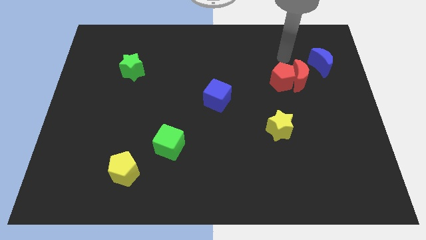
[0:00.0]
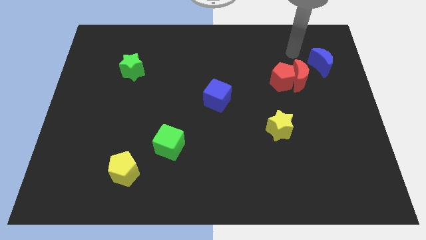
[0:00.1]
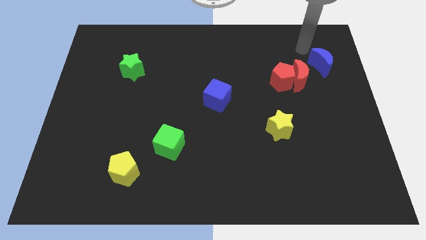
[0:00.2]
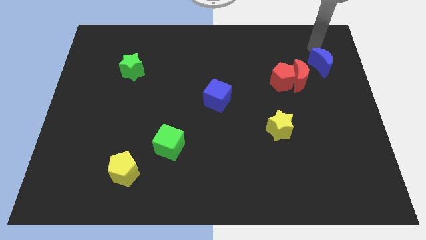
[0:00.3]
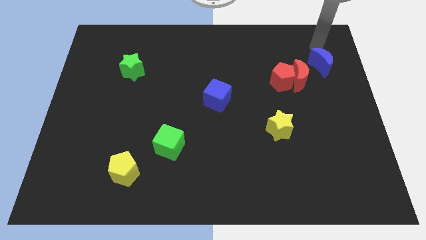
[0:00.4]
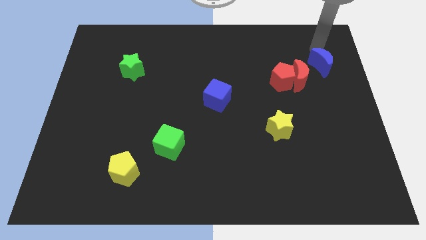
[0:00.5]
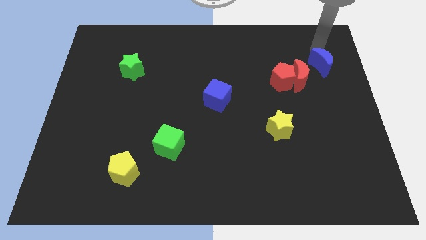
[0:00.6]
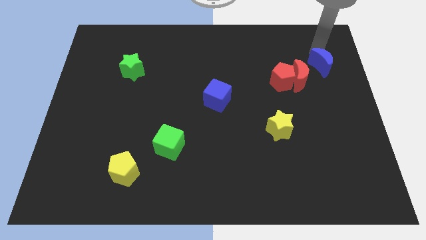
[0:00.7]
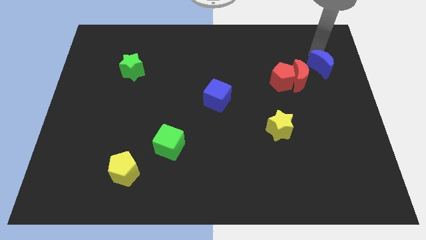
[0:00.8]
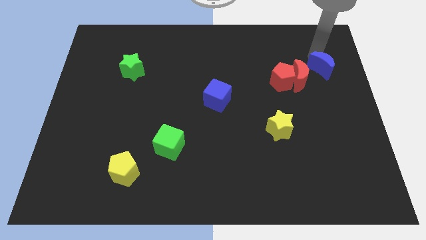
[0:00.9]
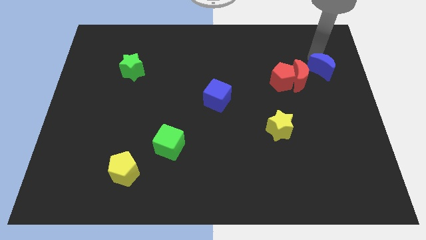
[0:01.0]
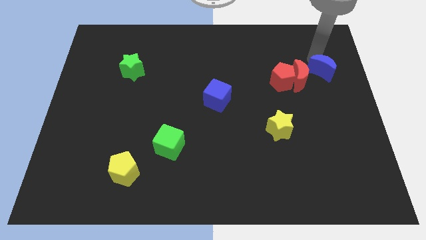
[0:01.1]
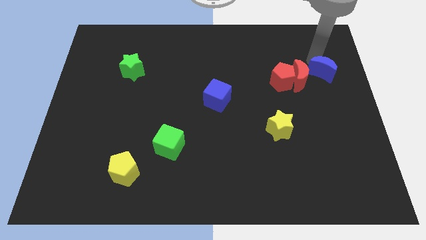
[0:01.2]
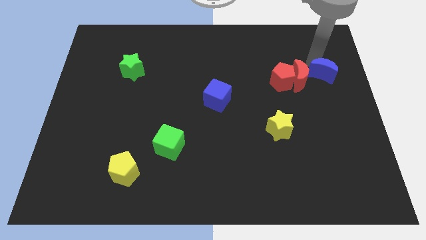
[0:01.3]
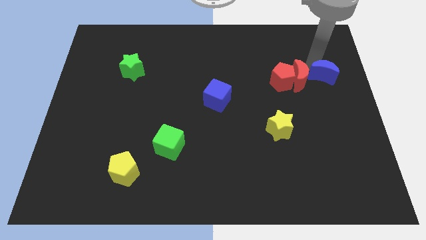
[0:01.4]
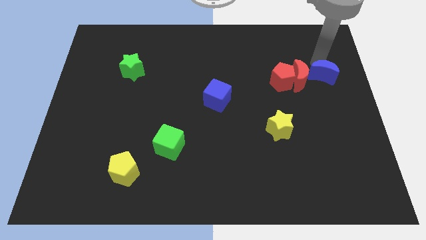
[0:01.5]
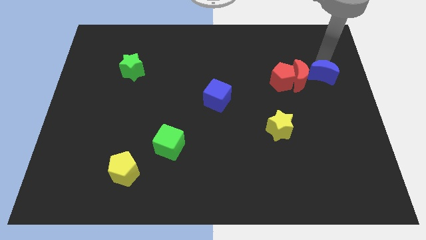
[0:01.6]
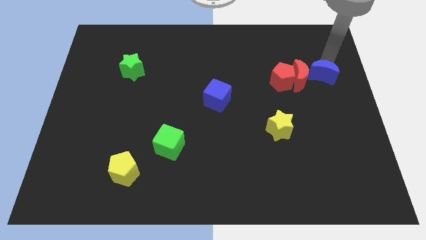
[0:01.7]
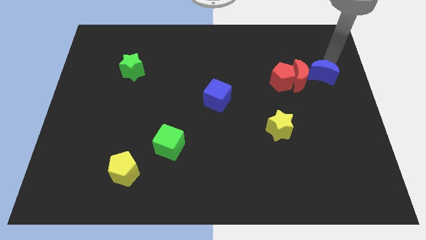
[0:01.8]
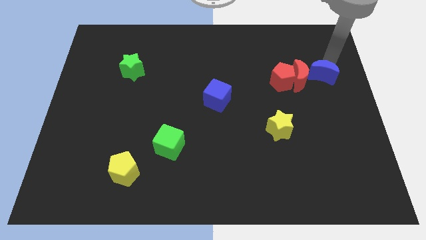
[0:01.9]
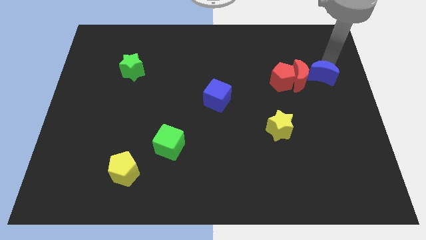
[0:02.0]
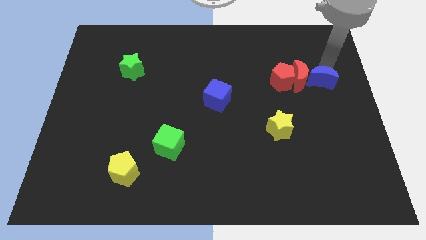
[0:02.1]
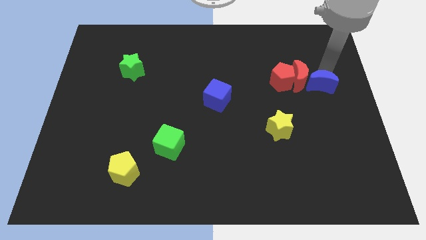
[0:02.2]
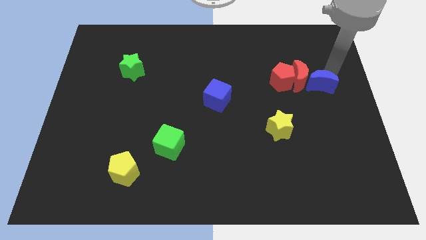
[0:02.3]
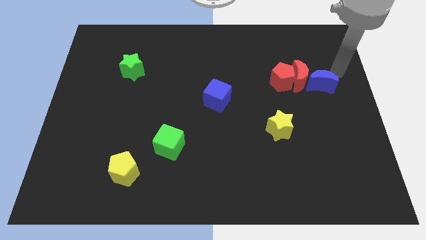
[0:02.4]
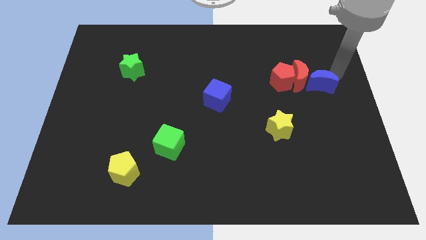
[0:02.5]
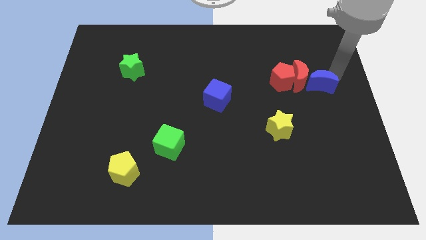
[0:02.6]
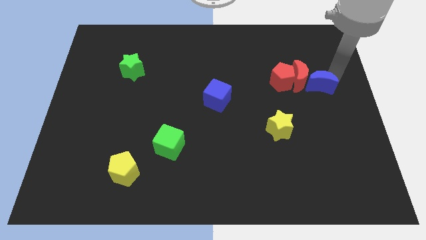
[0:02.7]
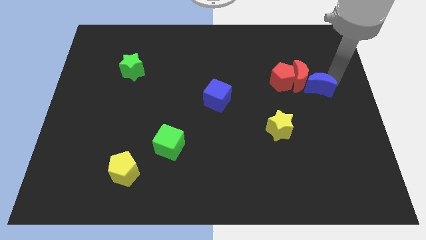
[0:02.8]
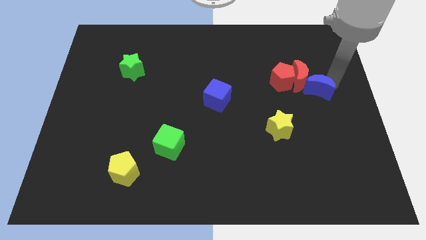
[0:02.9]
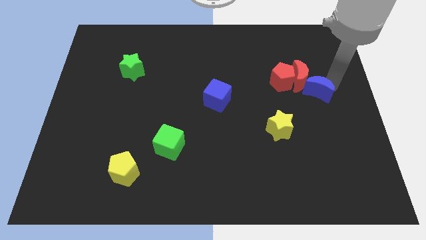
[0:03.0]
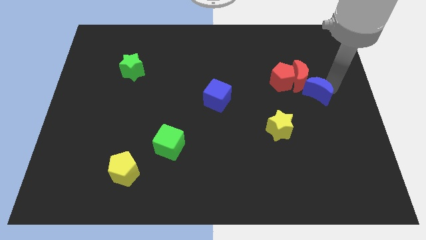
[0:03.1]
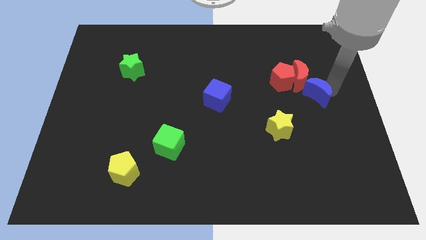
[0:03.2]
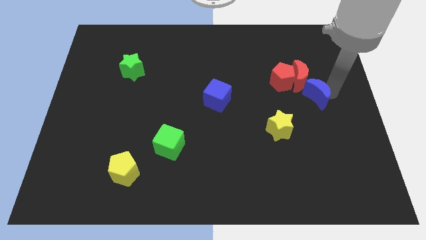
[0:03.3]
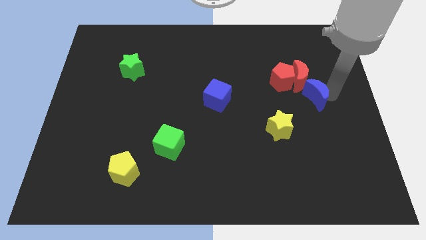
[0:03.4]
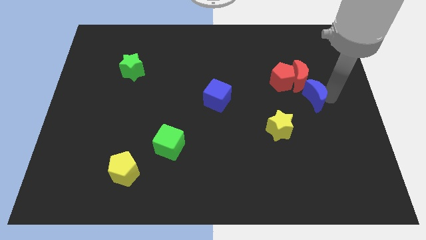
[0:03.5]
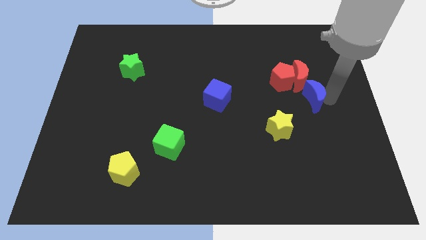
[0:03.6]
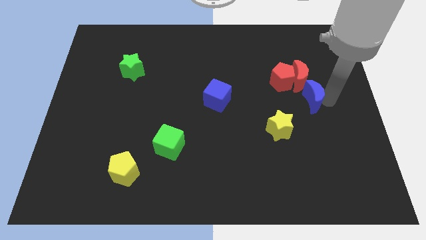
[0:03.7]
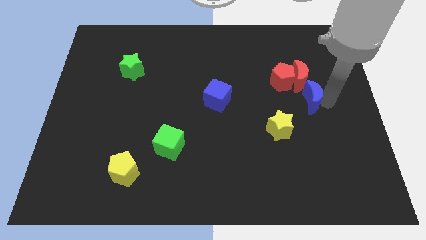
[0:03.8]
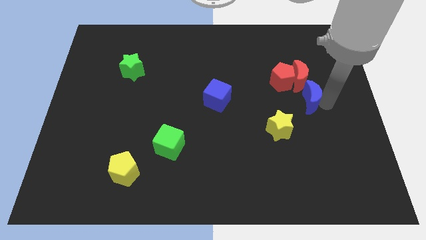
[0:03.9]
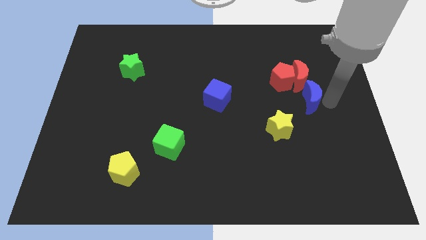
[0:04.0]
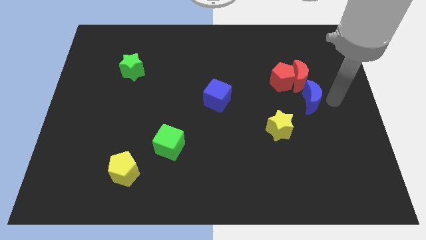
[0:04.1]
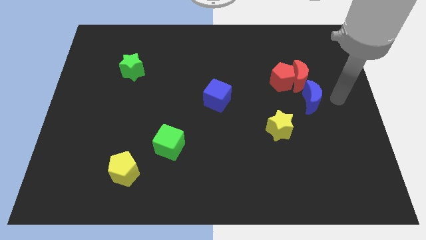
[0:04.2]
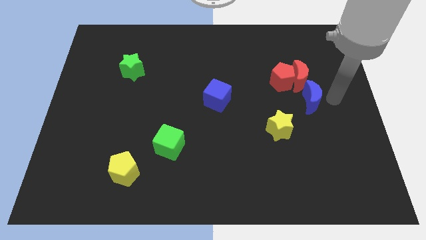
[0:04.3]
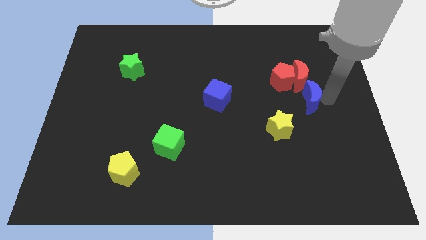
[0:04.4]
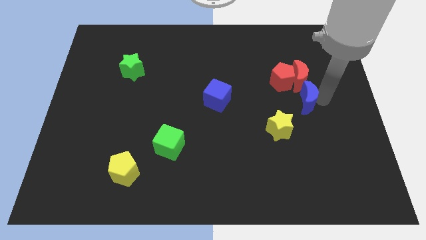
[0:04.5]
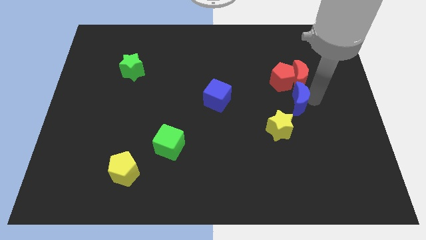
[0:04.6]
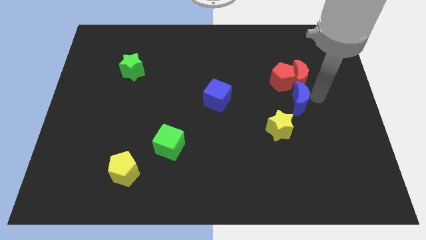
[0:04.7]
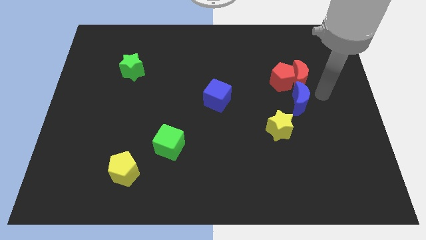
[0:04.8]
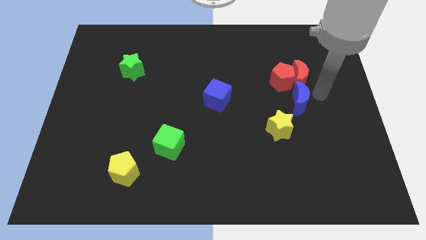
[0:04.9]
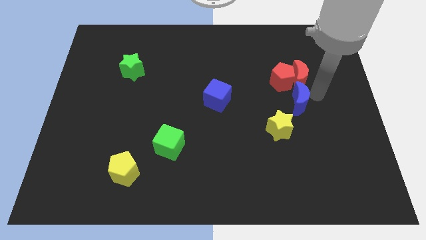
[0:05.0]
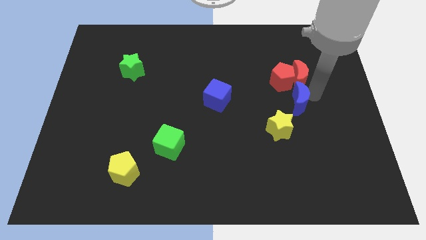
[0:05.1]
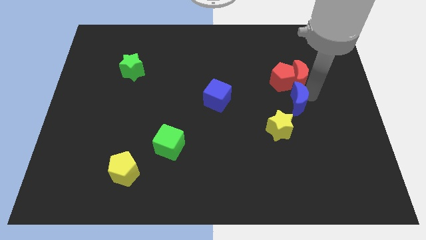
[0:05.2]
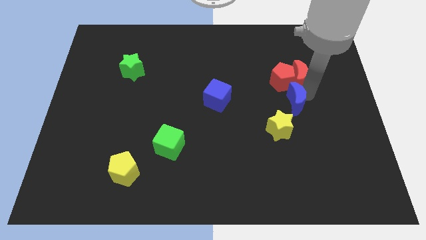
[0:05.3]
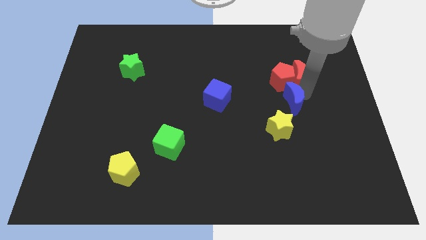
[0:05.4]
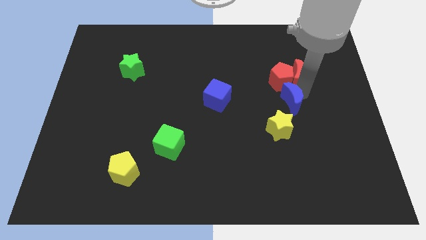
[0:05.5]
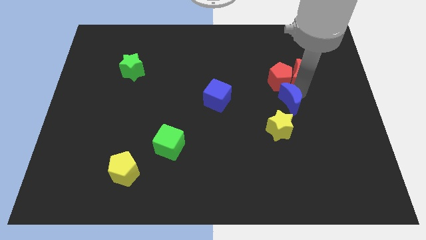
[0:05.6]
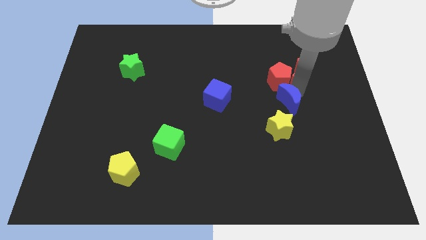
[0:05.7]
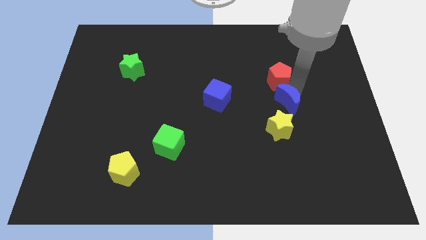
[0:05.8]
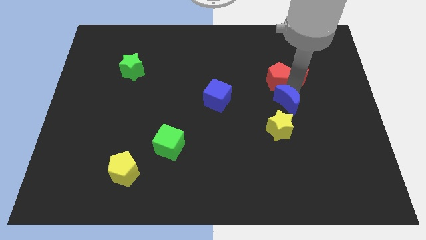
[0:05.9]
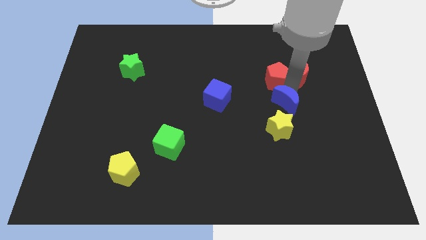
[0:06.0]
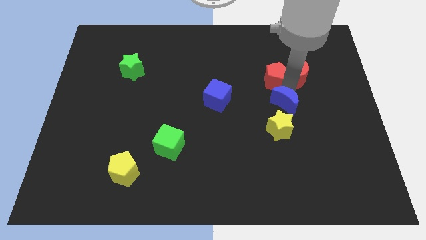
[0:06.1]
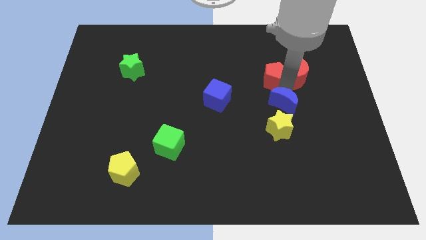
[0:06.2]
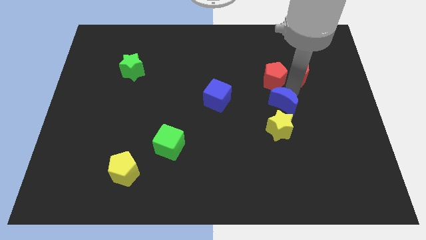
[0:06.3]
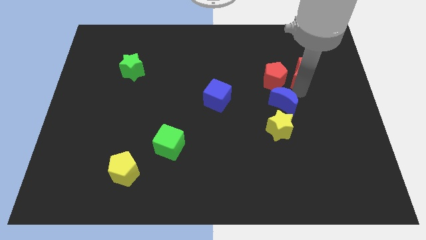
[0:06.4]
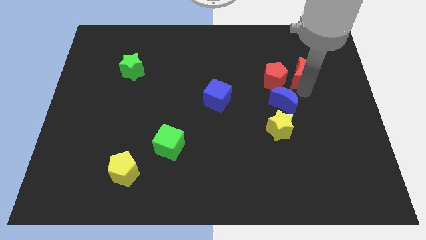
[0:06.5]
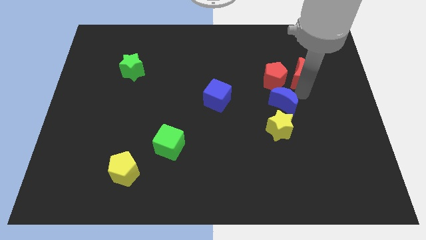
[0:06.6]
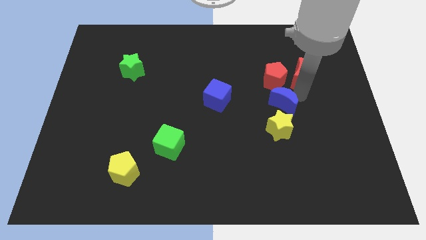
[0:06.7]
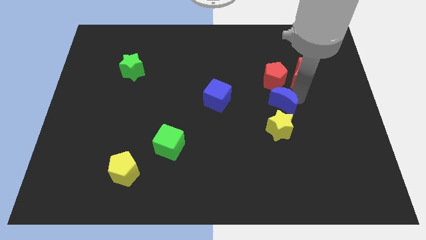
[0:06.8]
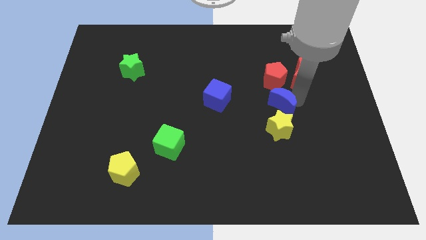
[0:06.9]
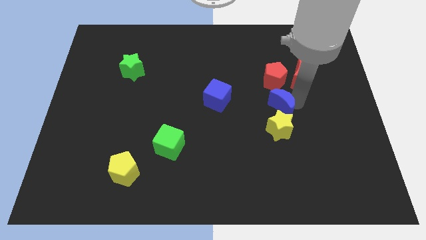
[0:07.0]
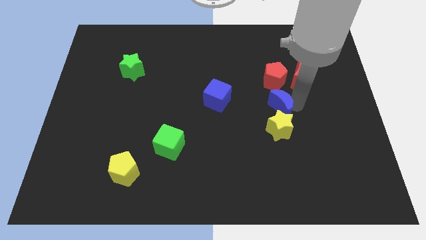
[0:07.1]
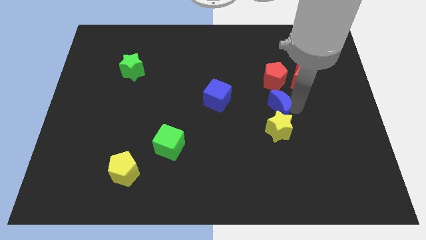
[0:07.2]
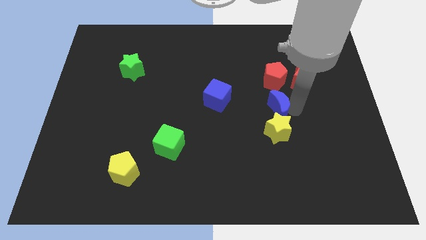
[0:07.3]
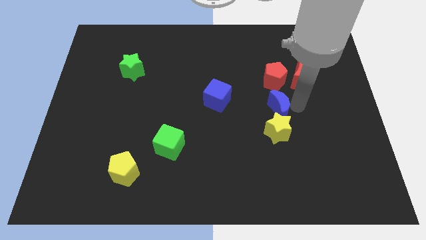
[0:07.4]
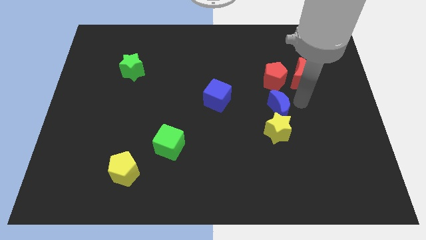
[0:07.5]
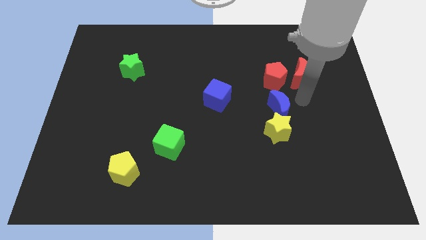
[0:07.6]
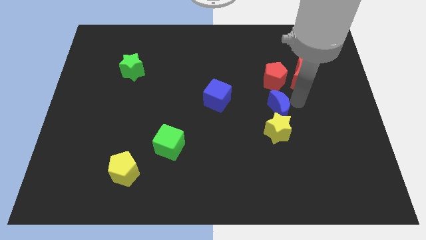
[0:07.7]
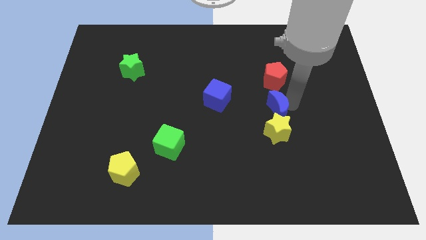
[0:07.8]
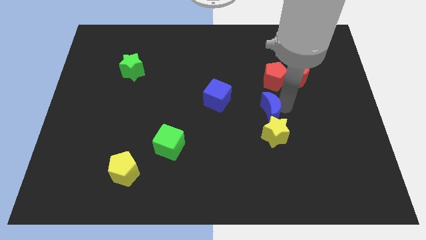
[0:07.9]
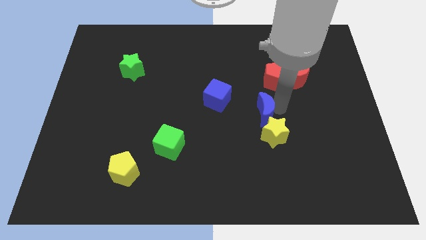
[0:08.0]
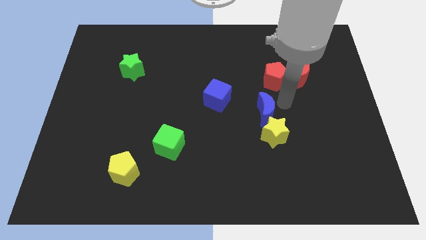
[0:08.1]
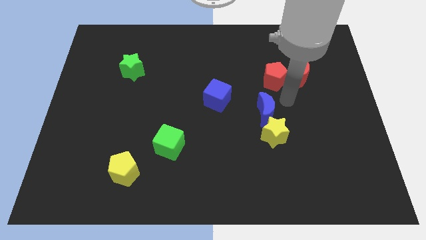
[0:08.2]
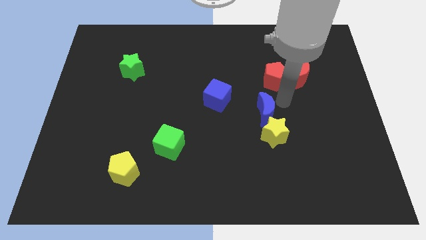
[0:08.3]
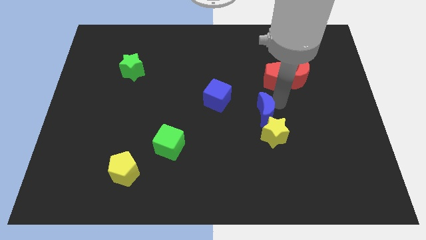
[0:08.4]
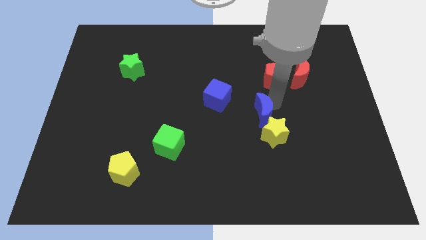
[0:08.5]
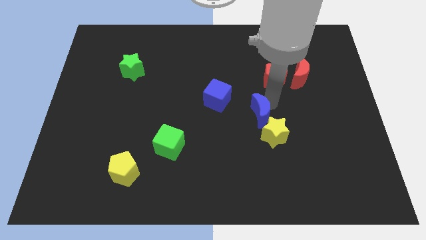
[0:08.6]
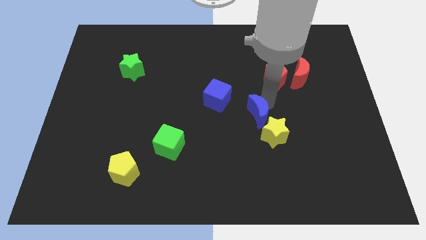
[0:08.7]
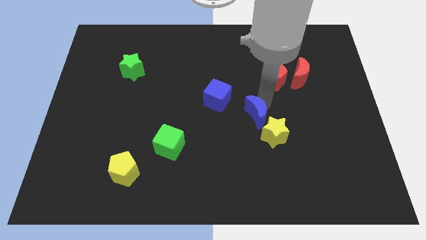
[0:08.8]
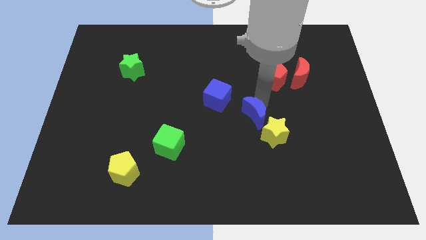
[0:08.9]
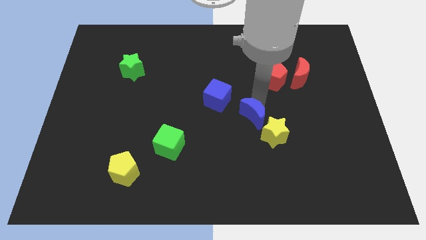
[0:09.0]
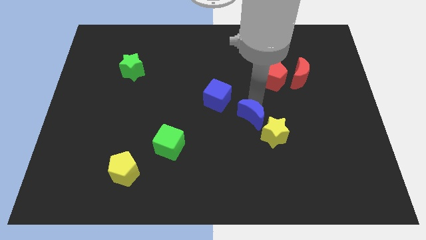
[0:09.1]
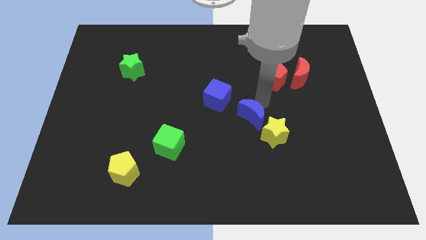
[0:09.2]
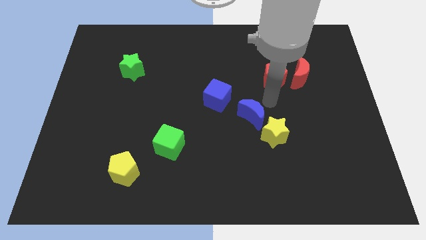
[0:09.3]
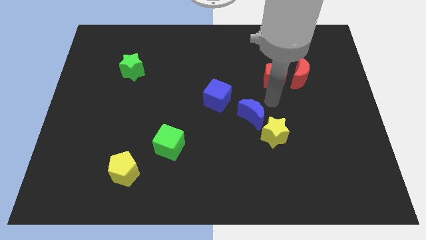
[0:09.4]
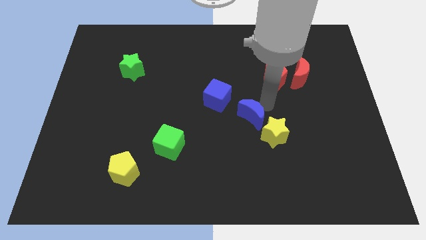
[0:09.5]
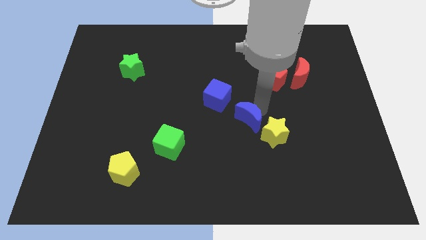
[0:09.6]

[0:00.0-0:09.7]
put the blue moon just left of the yellow star
